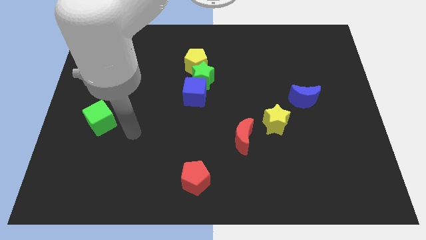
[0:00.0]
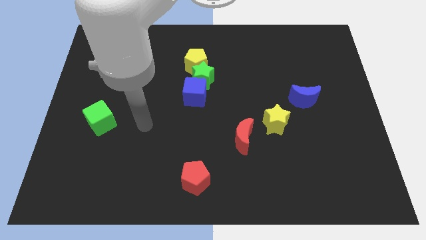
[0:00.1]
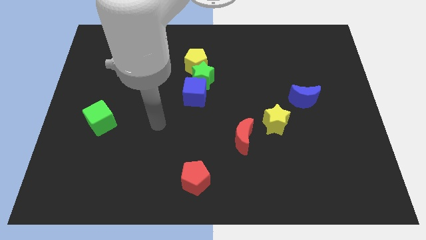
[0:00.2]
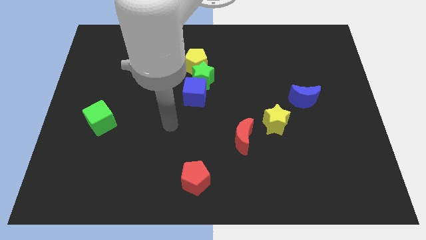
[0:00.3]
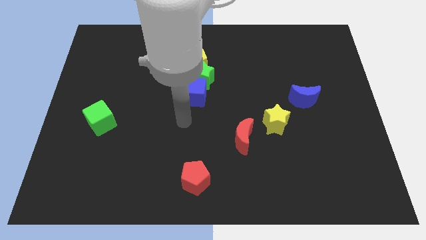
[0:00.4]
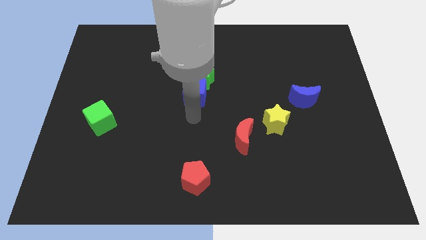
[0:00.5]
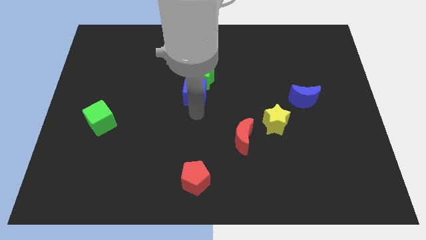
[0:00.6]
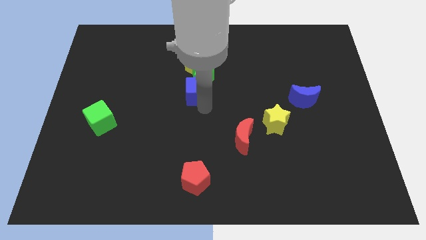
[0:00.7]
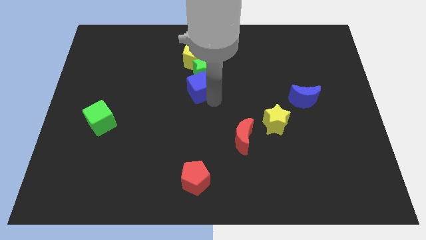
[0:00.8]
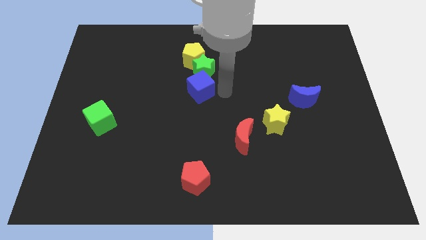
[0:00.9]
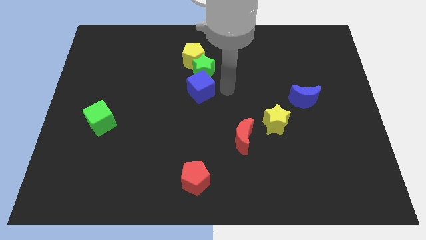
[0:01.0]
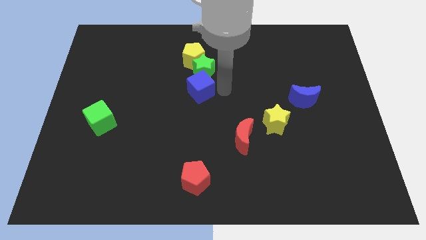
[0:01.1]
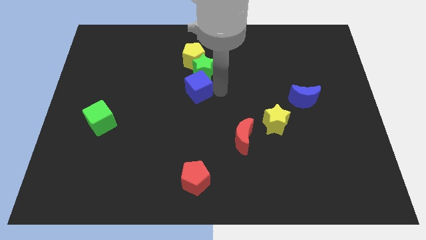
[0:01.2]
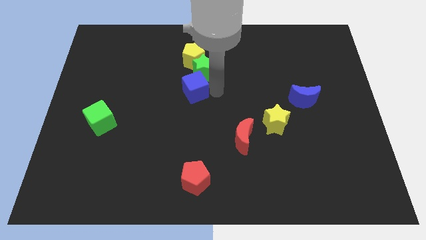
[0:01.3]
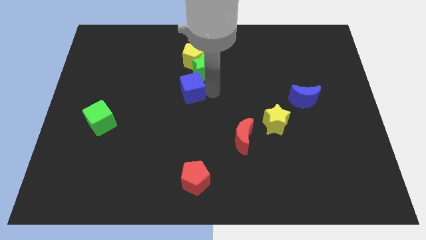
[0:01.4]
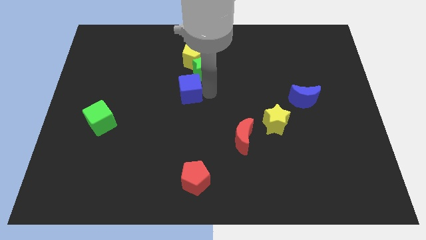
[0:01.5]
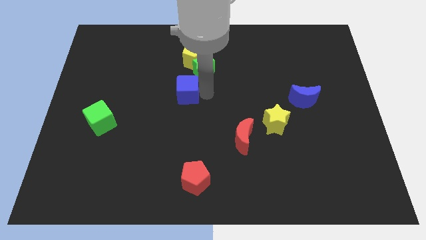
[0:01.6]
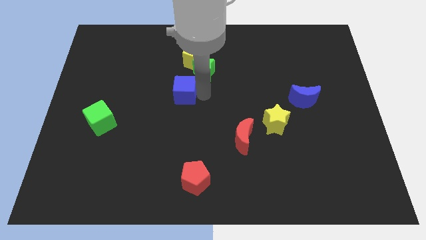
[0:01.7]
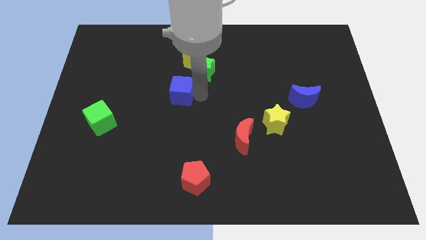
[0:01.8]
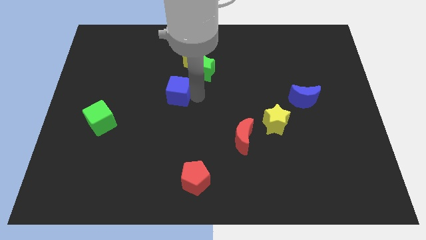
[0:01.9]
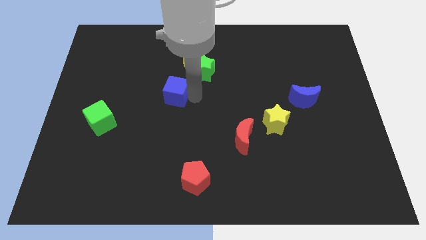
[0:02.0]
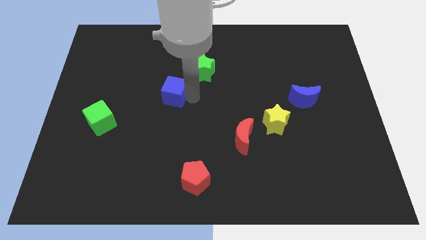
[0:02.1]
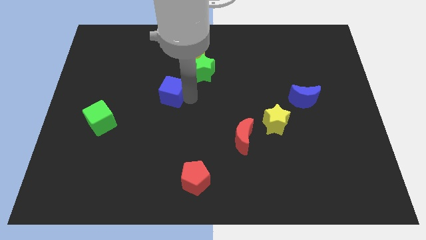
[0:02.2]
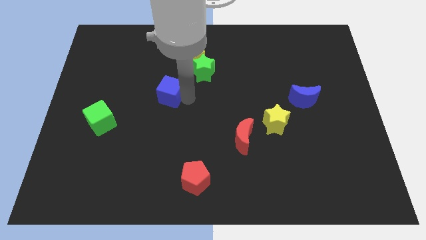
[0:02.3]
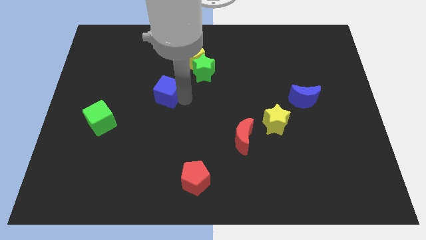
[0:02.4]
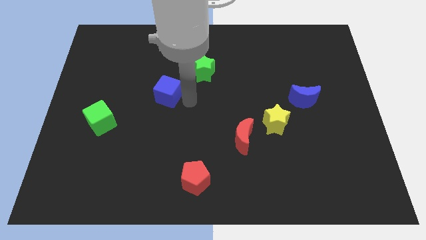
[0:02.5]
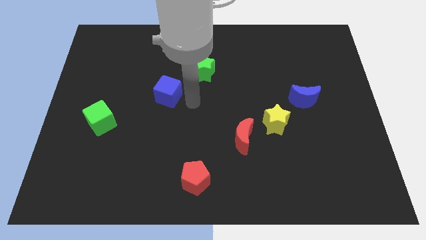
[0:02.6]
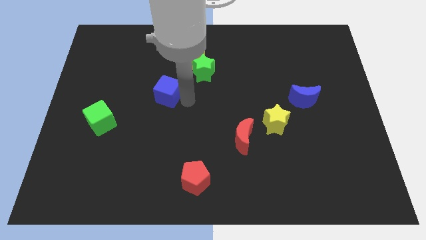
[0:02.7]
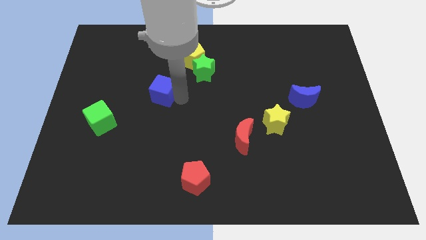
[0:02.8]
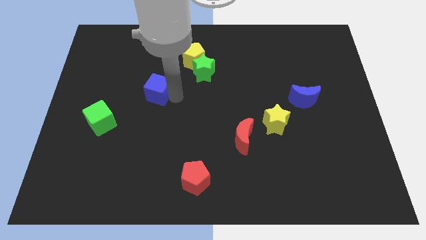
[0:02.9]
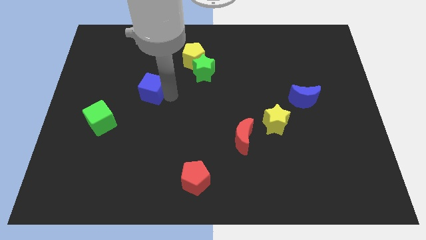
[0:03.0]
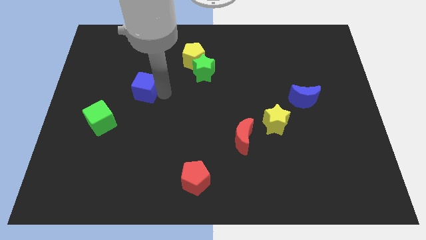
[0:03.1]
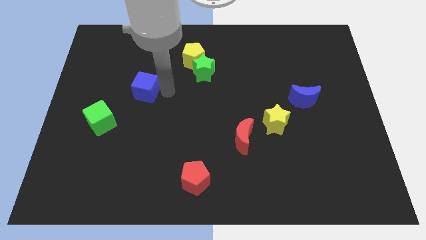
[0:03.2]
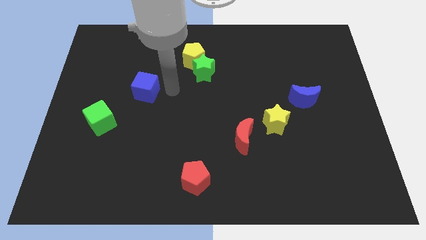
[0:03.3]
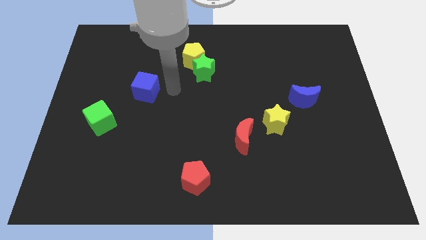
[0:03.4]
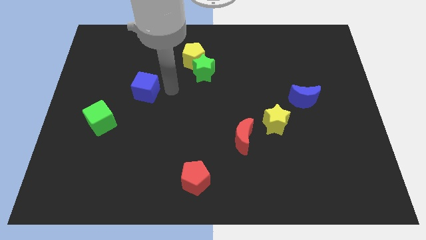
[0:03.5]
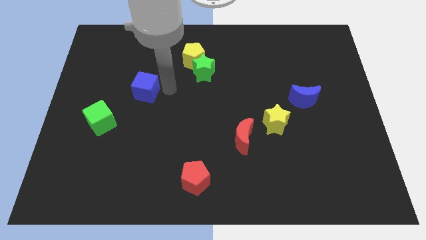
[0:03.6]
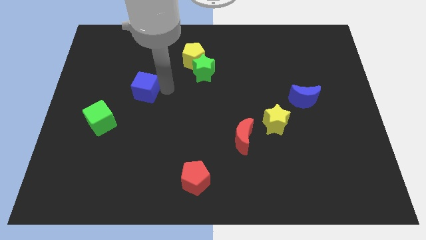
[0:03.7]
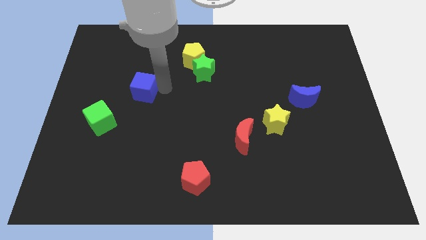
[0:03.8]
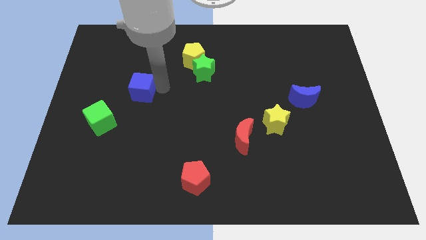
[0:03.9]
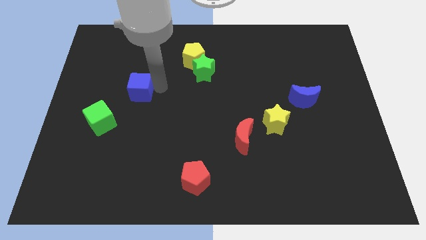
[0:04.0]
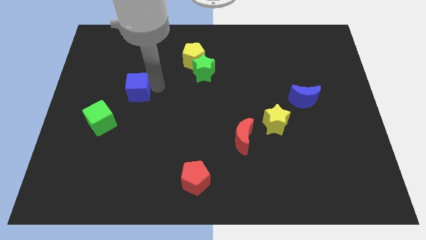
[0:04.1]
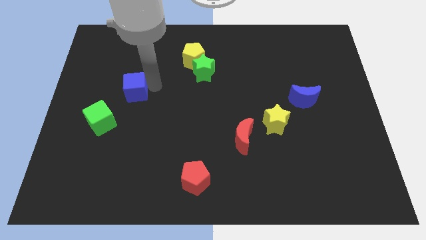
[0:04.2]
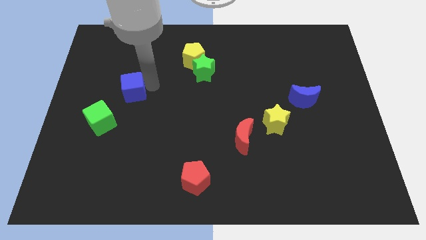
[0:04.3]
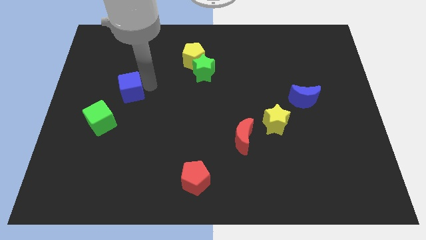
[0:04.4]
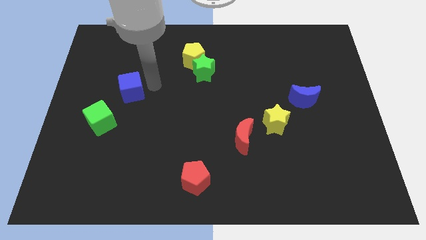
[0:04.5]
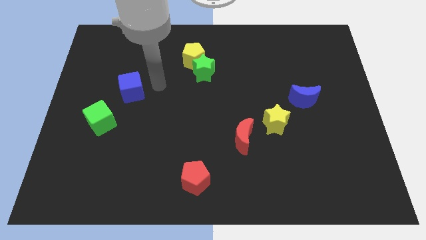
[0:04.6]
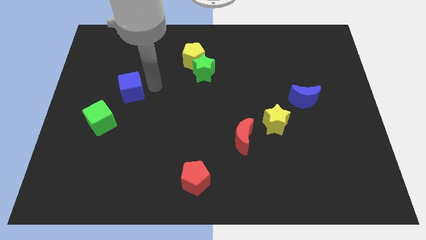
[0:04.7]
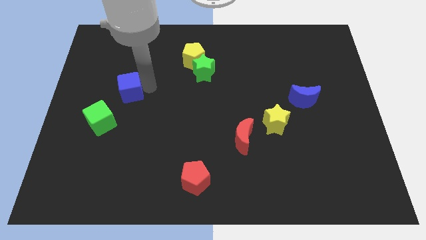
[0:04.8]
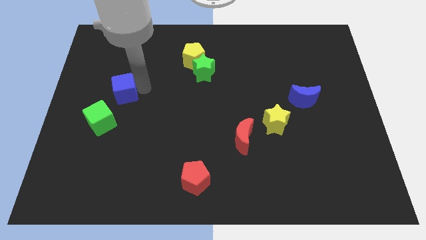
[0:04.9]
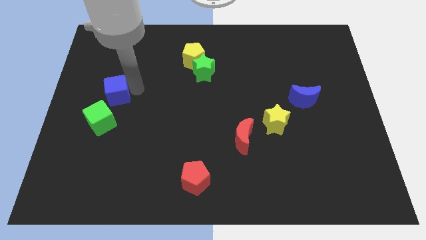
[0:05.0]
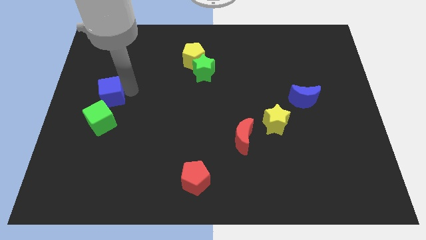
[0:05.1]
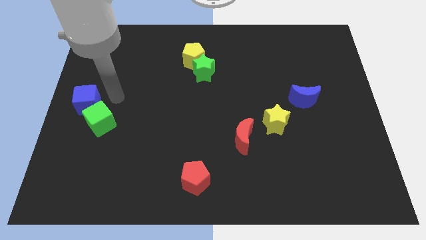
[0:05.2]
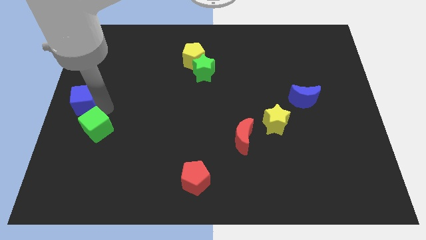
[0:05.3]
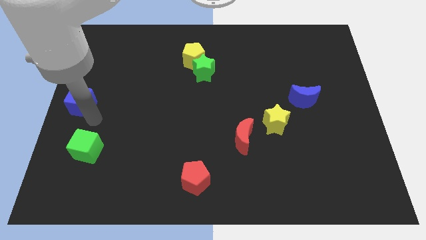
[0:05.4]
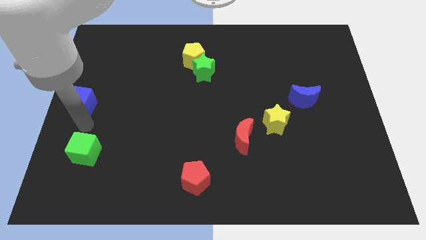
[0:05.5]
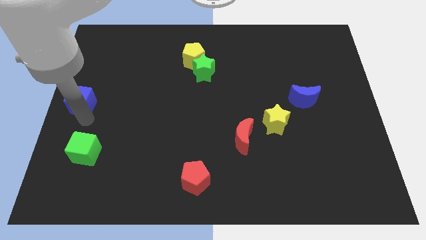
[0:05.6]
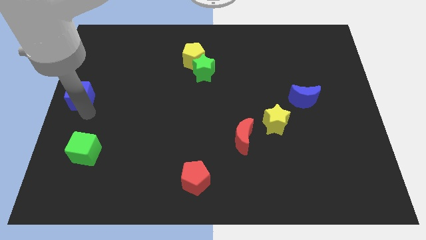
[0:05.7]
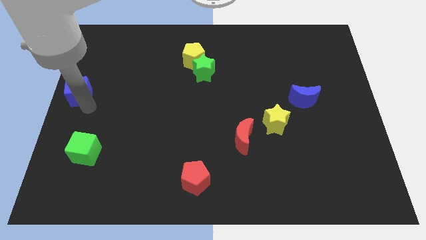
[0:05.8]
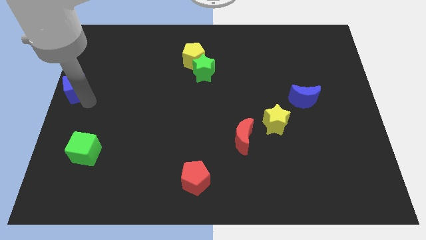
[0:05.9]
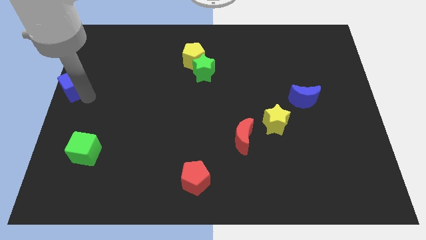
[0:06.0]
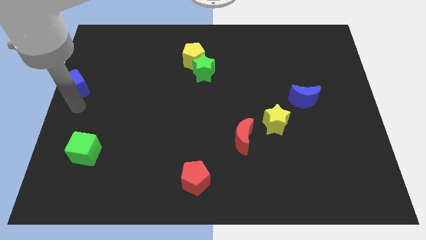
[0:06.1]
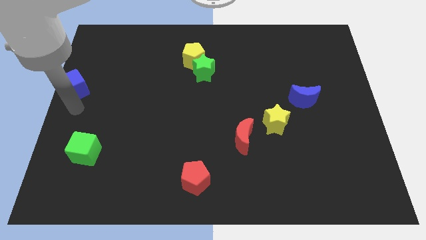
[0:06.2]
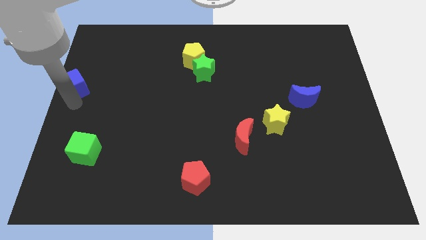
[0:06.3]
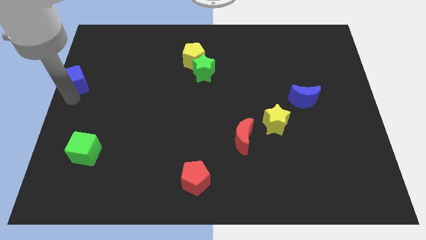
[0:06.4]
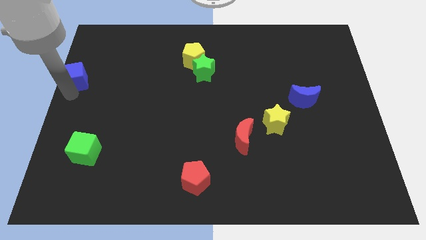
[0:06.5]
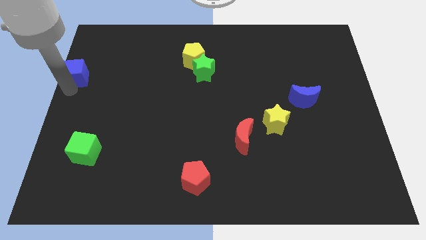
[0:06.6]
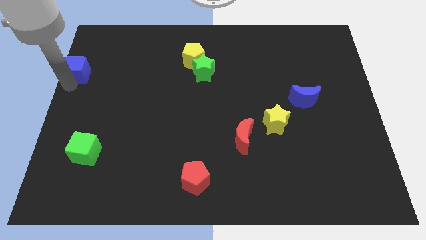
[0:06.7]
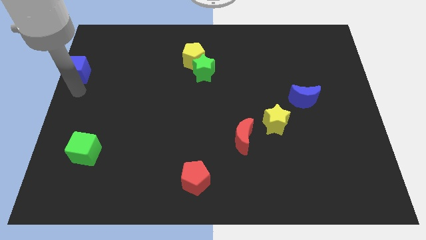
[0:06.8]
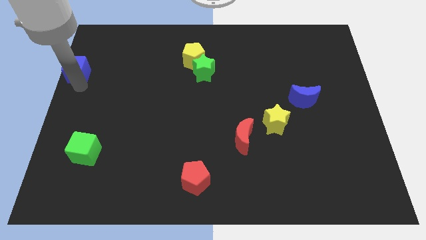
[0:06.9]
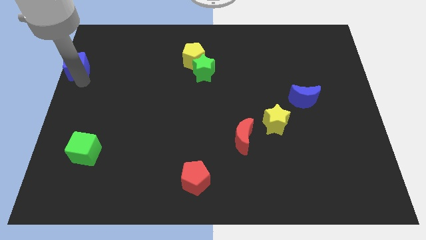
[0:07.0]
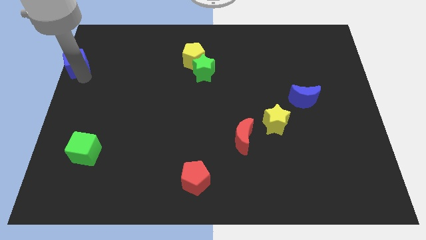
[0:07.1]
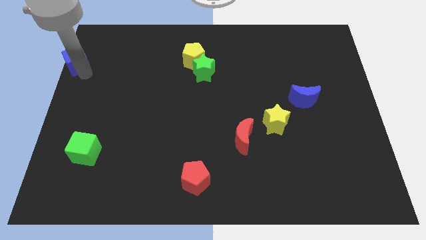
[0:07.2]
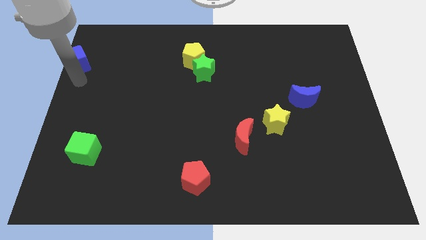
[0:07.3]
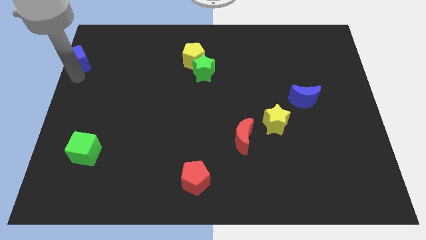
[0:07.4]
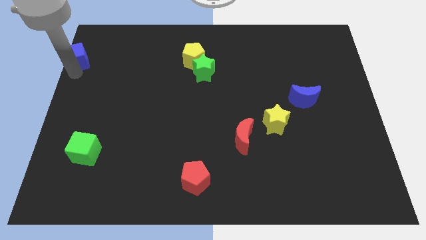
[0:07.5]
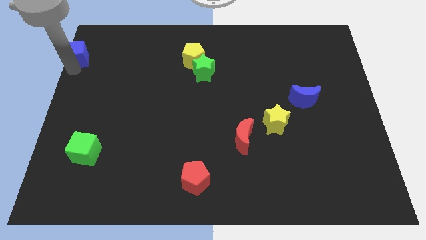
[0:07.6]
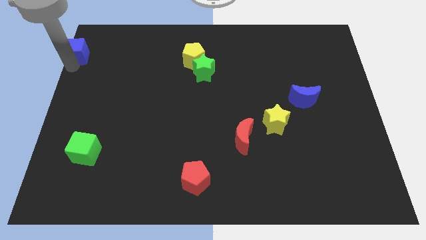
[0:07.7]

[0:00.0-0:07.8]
slide the blue cube to the top left corner
